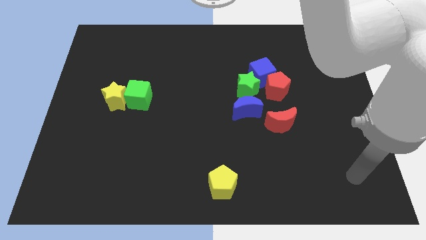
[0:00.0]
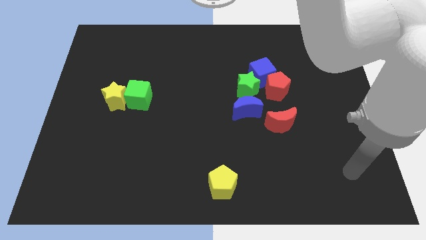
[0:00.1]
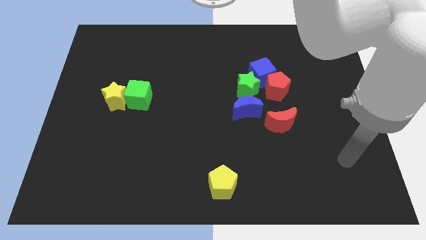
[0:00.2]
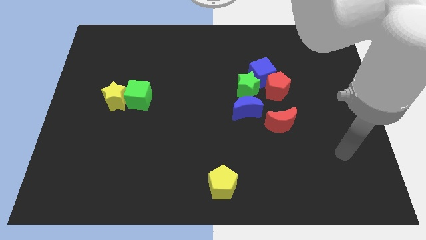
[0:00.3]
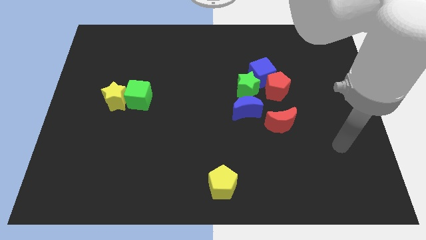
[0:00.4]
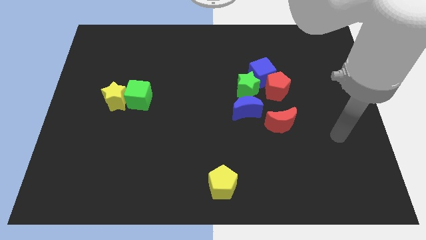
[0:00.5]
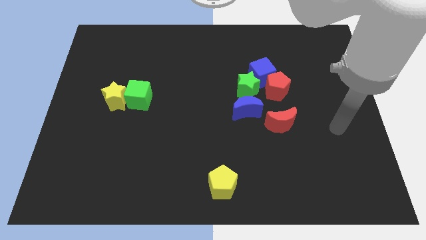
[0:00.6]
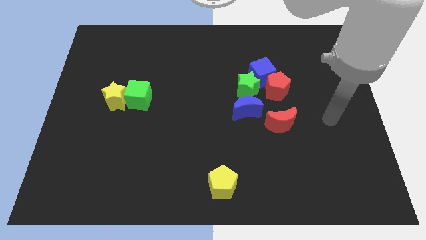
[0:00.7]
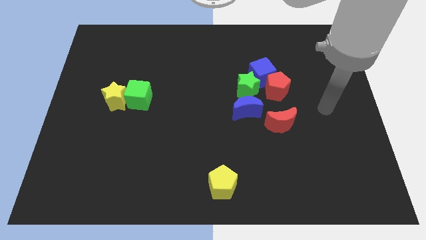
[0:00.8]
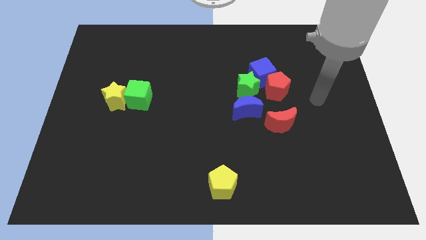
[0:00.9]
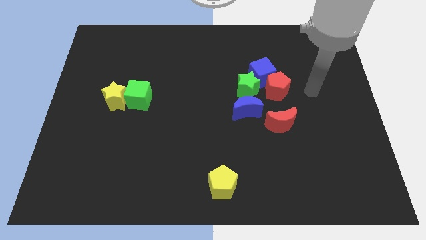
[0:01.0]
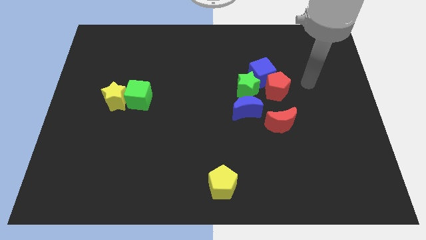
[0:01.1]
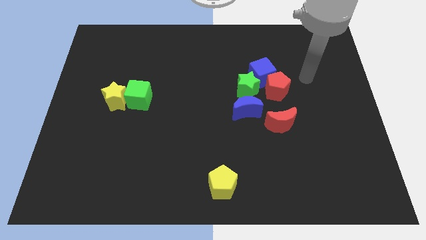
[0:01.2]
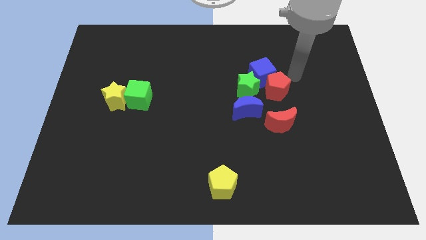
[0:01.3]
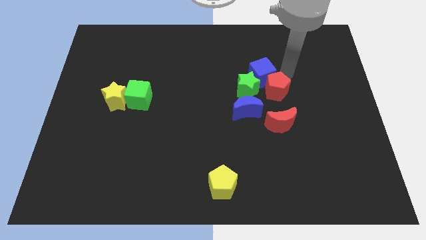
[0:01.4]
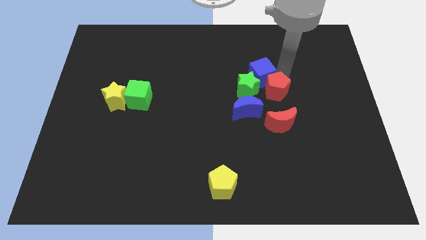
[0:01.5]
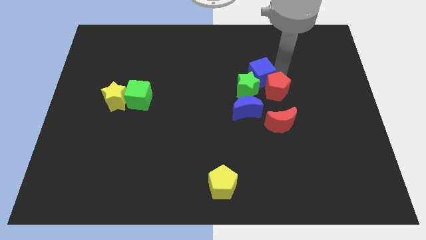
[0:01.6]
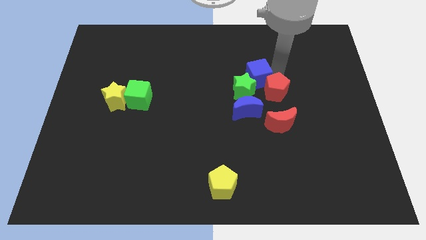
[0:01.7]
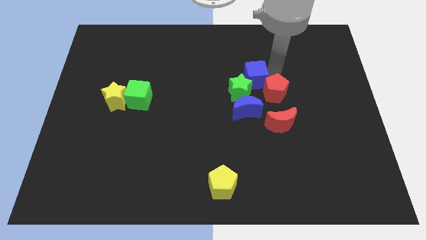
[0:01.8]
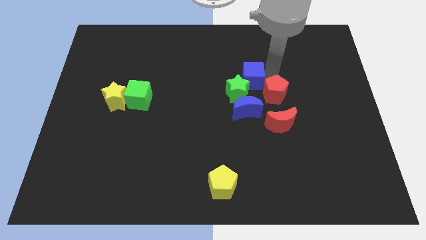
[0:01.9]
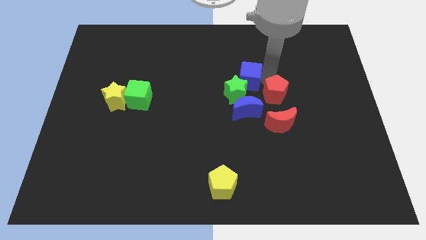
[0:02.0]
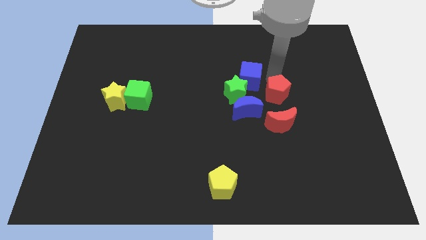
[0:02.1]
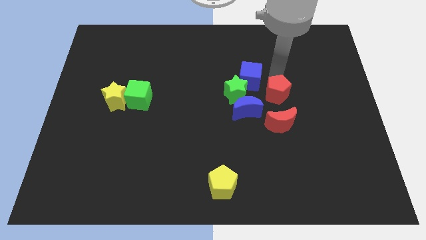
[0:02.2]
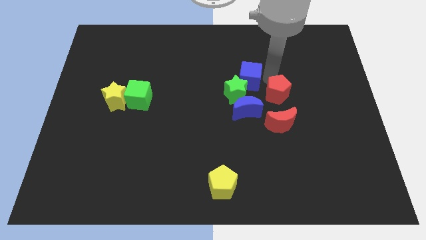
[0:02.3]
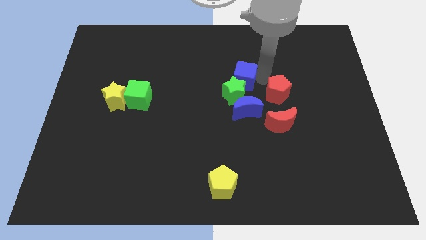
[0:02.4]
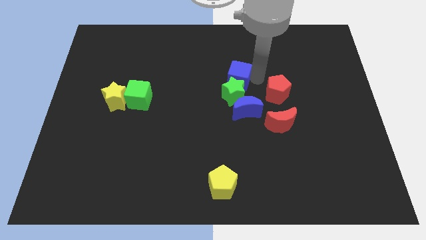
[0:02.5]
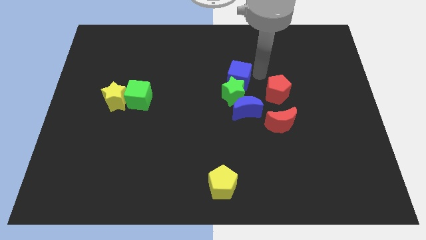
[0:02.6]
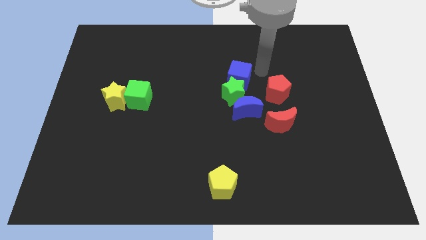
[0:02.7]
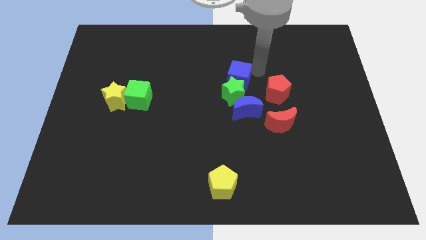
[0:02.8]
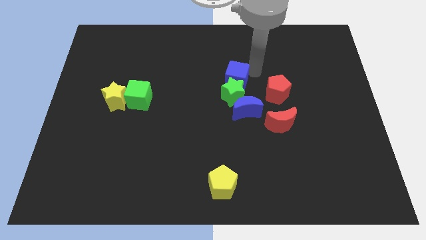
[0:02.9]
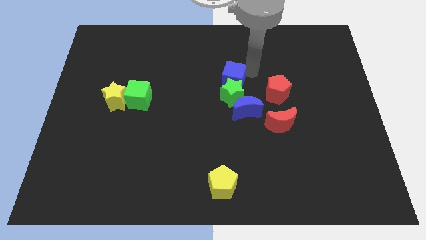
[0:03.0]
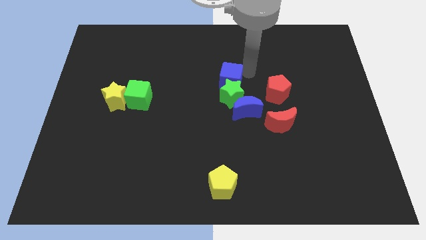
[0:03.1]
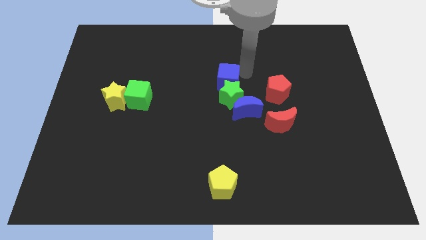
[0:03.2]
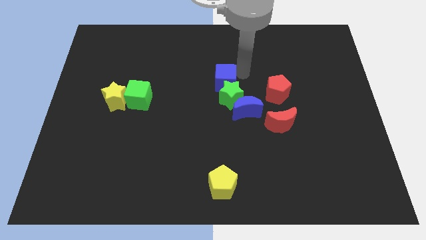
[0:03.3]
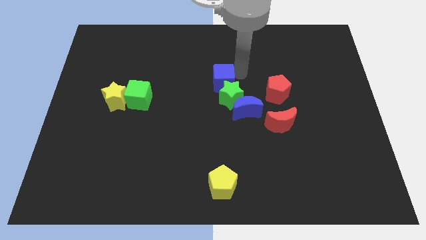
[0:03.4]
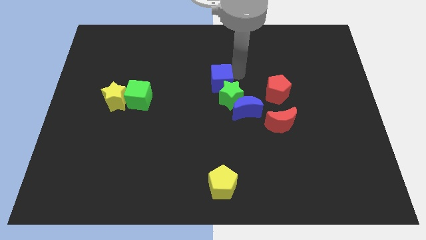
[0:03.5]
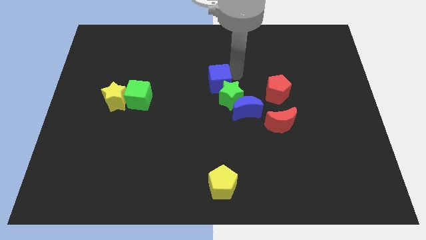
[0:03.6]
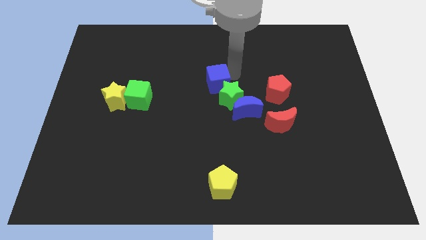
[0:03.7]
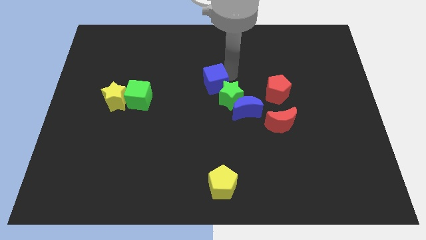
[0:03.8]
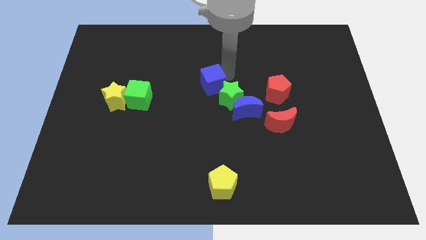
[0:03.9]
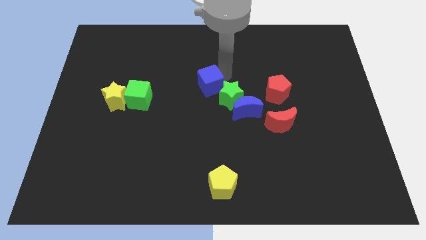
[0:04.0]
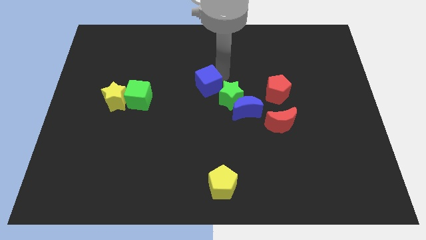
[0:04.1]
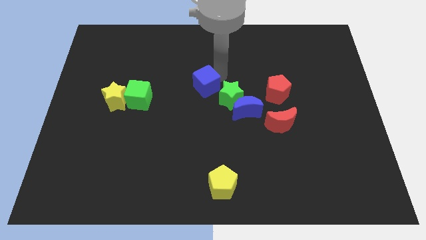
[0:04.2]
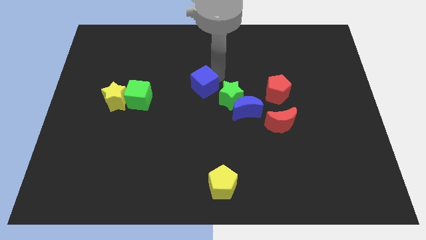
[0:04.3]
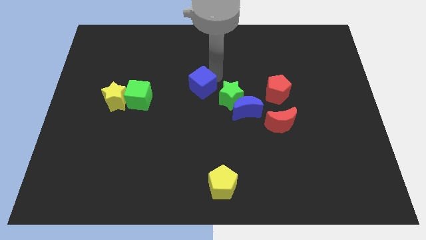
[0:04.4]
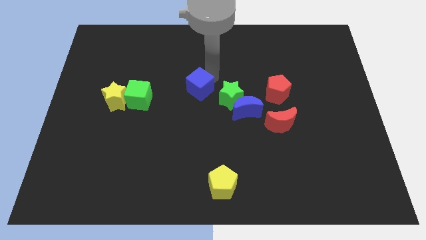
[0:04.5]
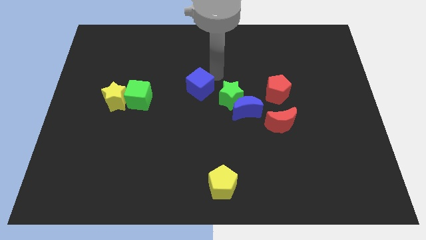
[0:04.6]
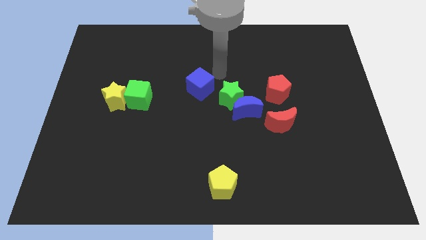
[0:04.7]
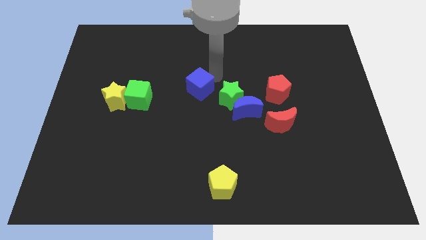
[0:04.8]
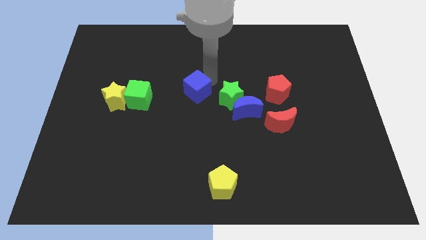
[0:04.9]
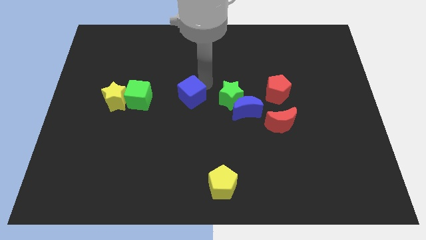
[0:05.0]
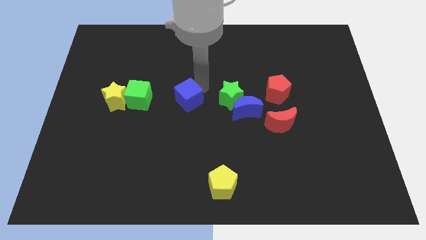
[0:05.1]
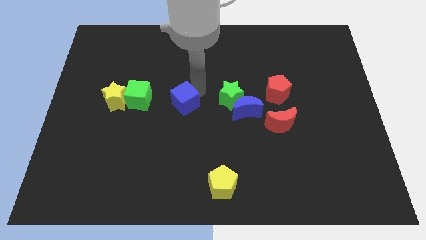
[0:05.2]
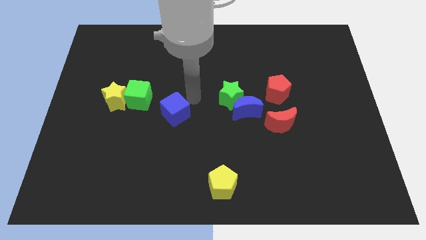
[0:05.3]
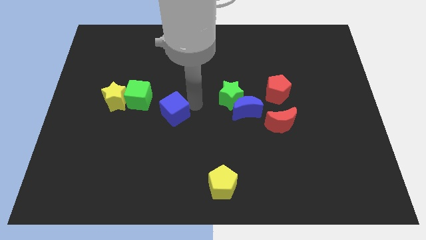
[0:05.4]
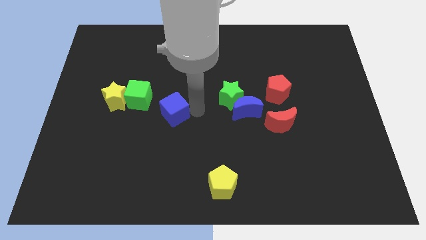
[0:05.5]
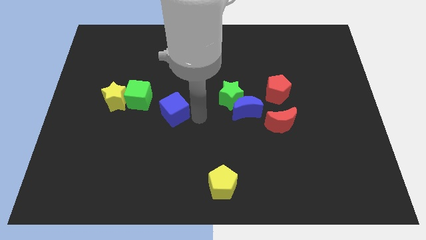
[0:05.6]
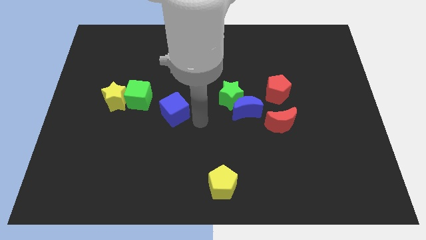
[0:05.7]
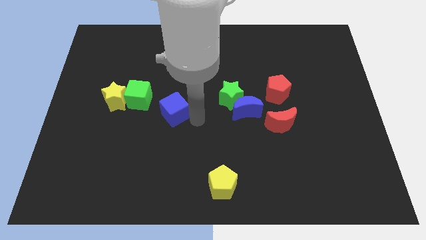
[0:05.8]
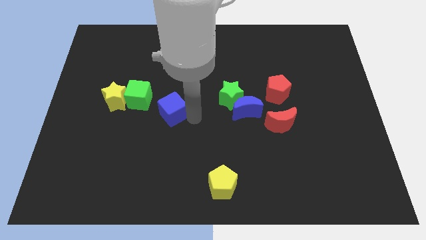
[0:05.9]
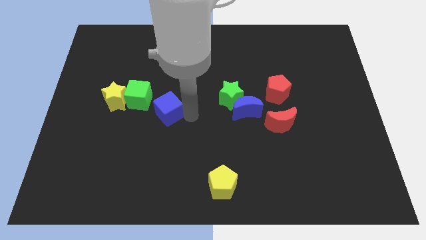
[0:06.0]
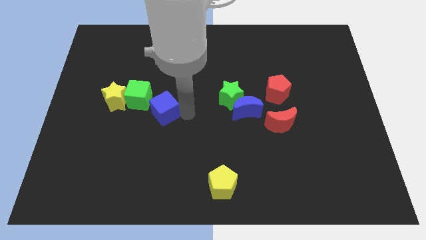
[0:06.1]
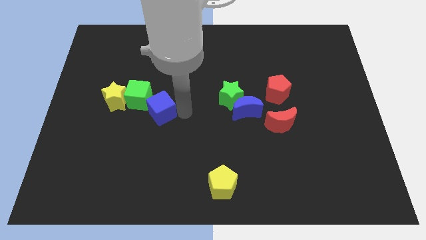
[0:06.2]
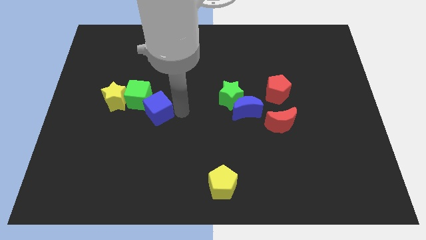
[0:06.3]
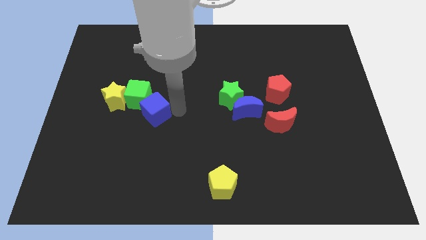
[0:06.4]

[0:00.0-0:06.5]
move the blue cube towards the green cube
